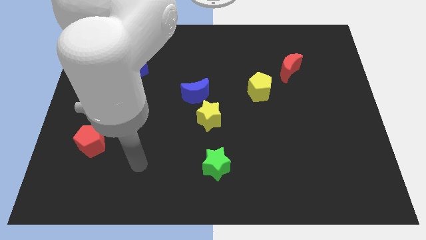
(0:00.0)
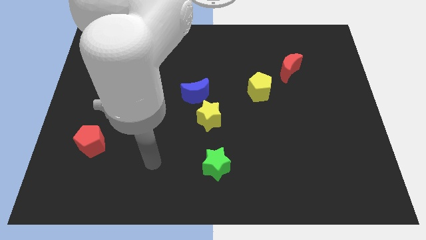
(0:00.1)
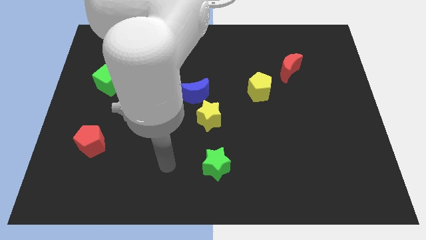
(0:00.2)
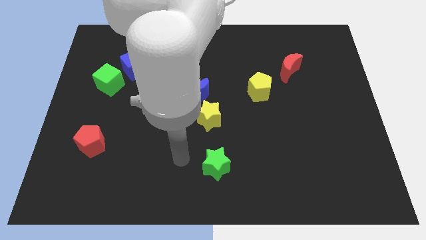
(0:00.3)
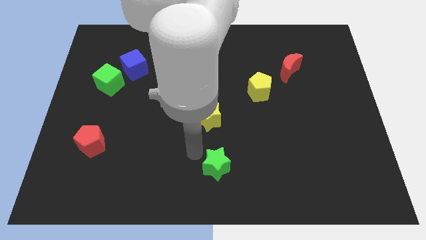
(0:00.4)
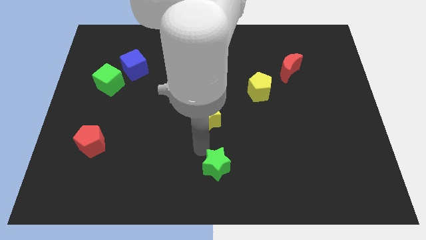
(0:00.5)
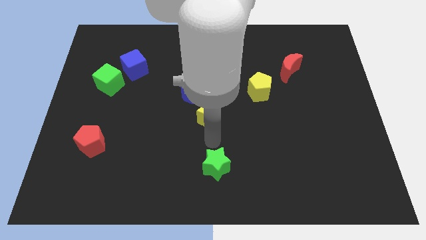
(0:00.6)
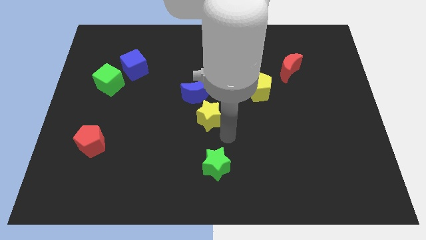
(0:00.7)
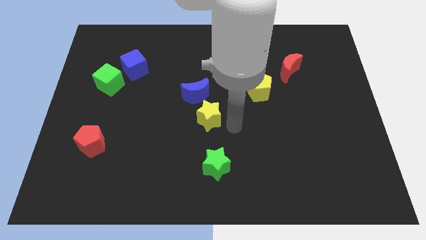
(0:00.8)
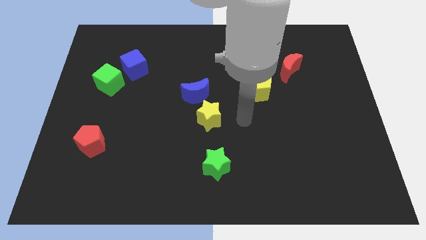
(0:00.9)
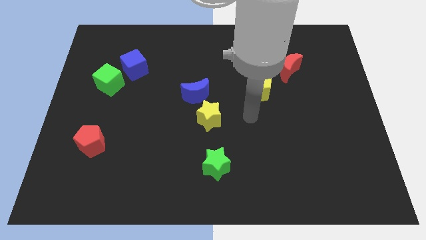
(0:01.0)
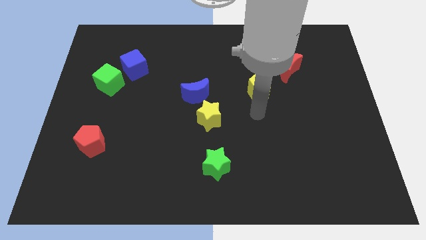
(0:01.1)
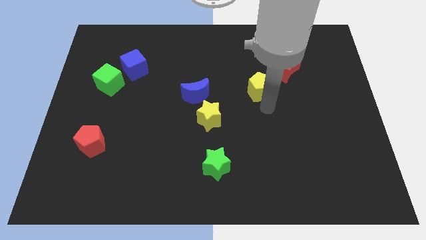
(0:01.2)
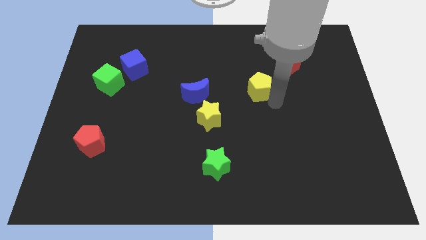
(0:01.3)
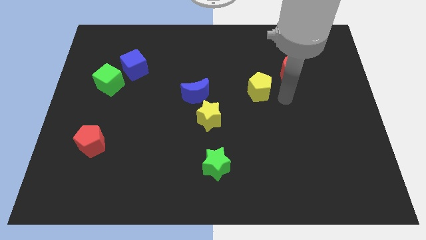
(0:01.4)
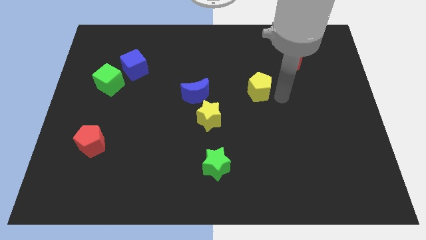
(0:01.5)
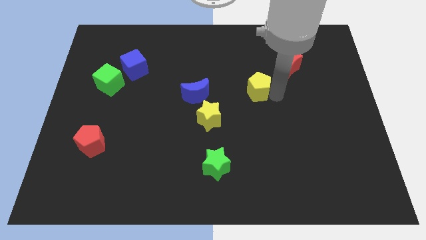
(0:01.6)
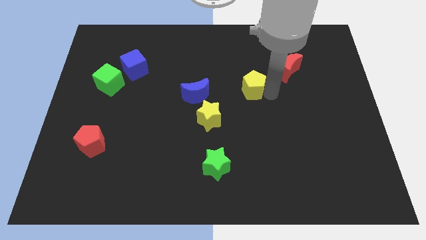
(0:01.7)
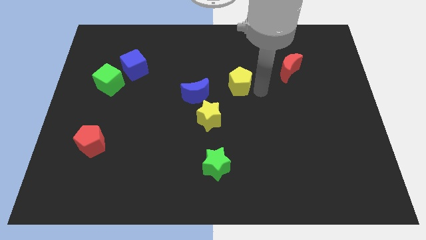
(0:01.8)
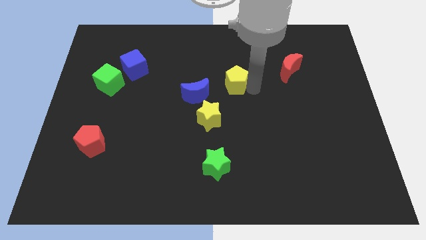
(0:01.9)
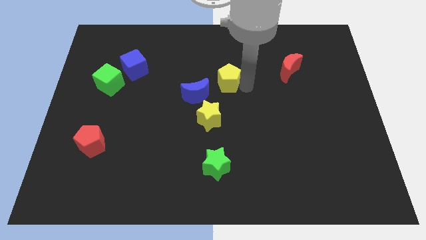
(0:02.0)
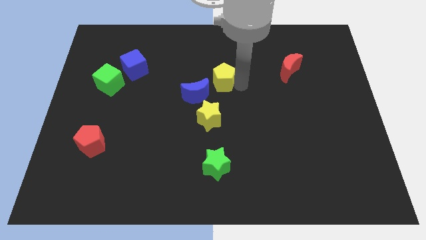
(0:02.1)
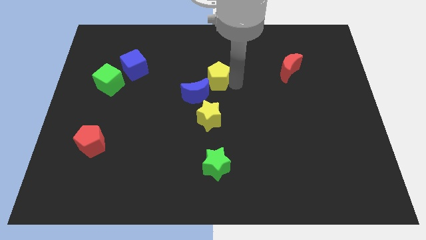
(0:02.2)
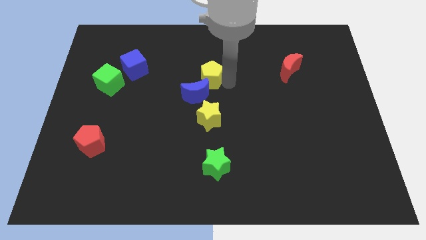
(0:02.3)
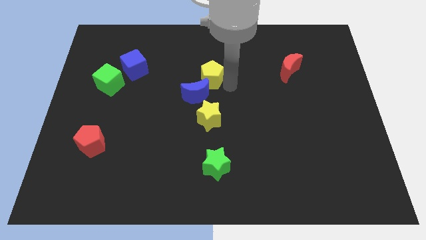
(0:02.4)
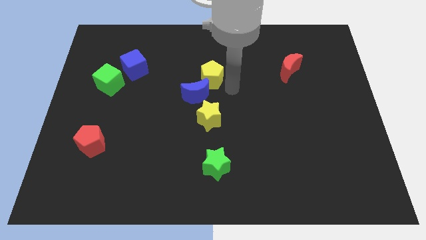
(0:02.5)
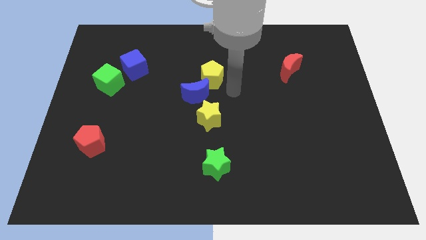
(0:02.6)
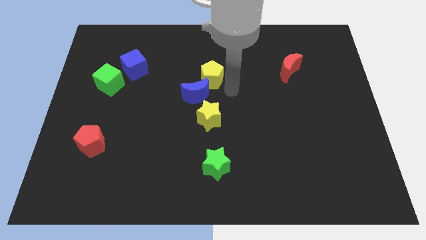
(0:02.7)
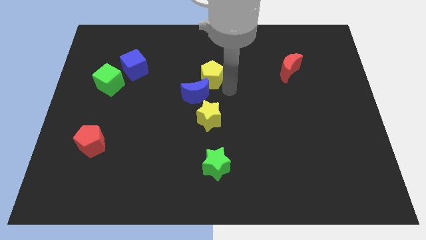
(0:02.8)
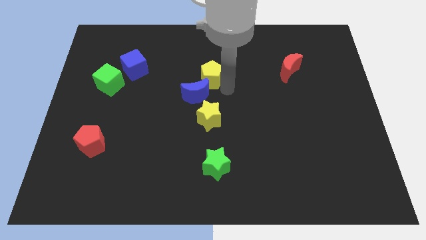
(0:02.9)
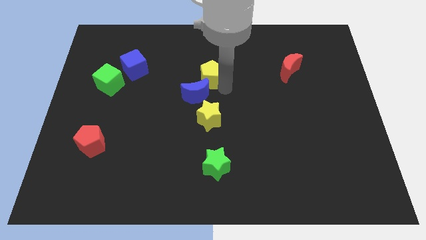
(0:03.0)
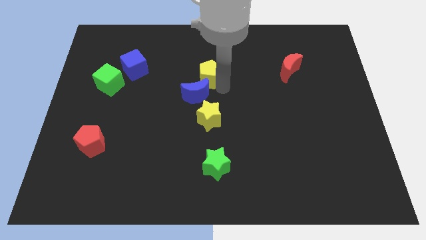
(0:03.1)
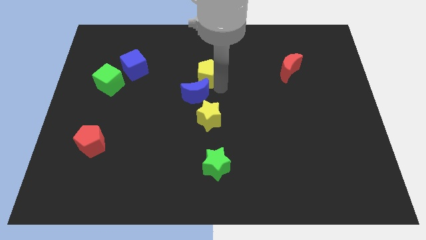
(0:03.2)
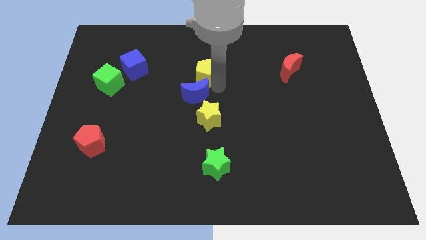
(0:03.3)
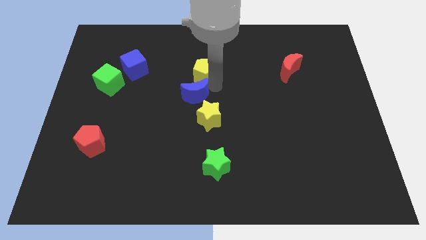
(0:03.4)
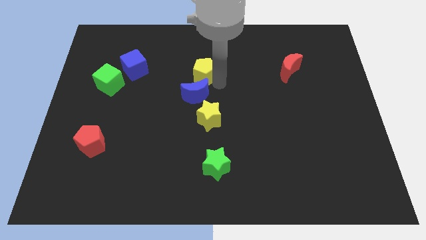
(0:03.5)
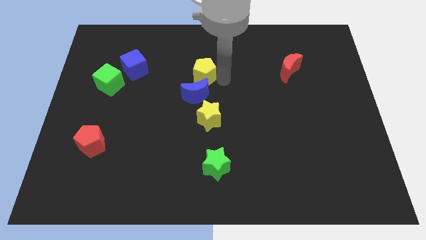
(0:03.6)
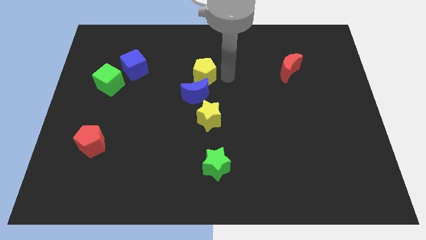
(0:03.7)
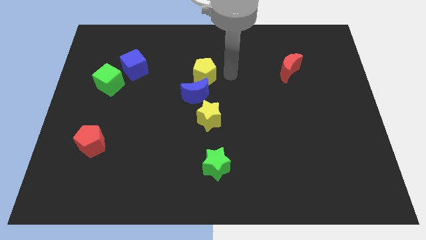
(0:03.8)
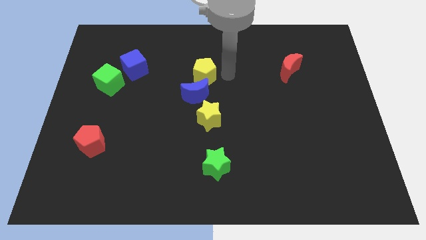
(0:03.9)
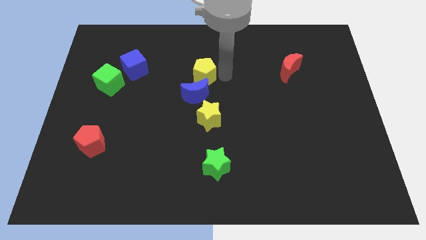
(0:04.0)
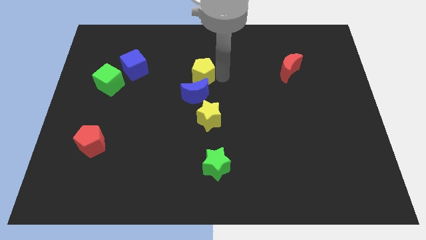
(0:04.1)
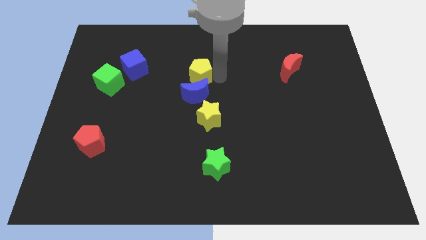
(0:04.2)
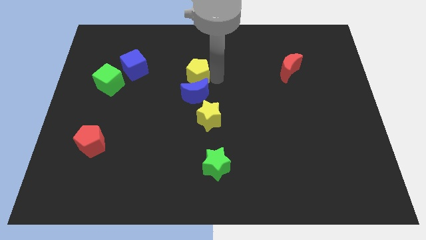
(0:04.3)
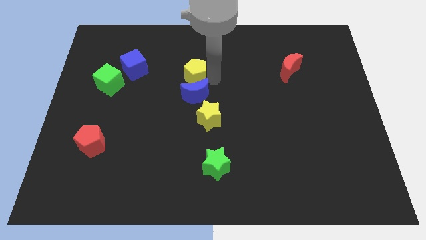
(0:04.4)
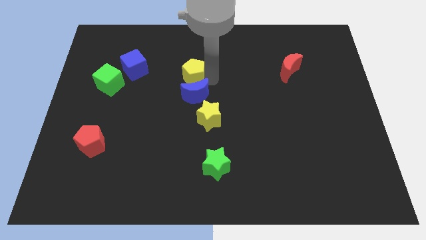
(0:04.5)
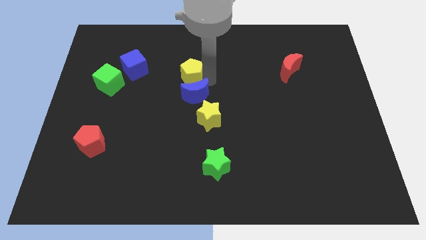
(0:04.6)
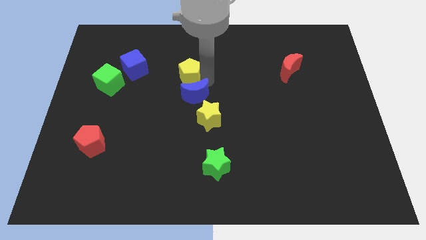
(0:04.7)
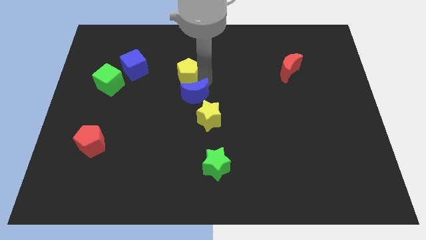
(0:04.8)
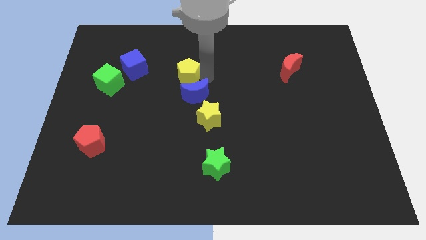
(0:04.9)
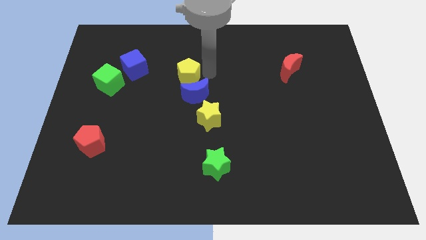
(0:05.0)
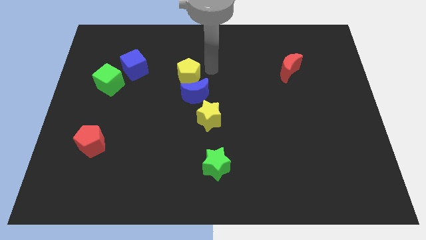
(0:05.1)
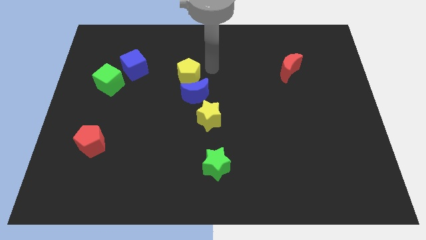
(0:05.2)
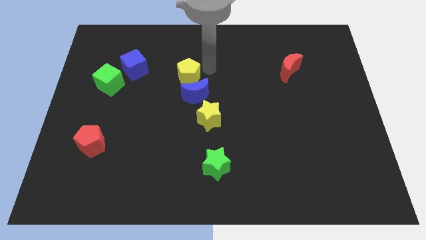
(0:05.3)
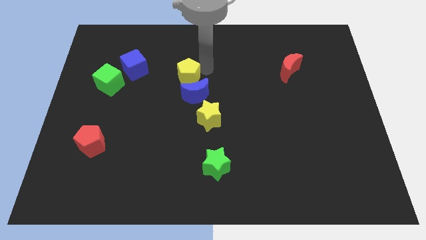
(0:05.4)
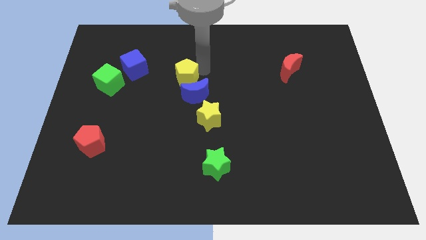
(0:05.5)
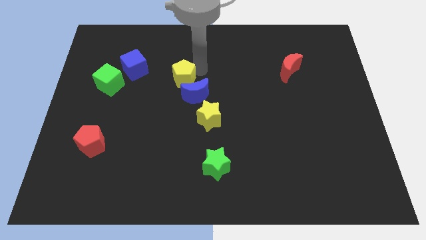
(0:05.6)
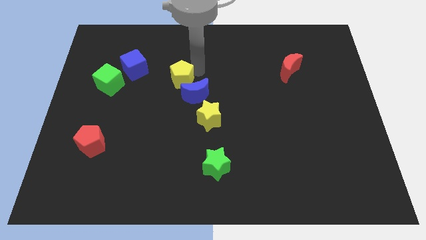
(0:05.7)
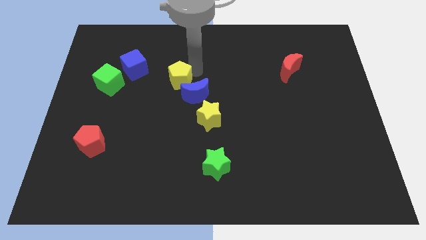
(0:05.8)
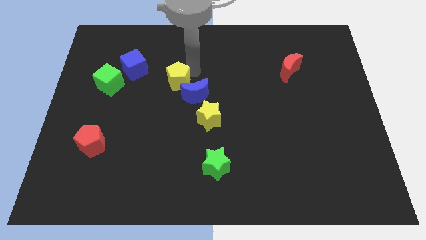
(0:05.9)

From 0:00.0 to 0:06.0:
put the yellow pentagon to the left side of the blue moon

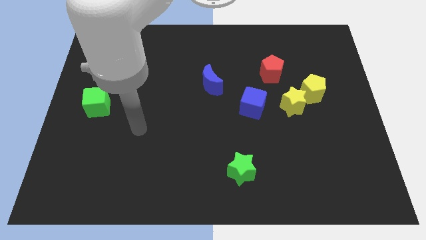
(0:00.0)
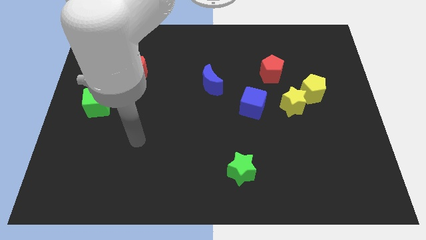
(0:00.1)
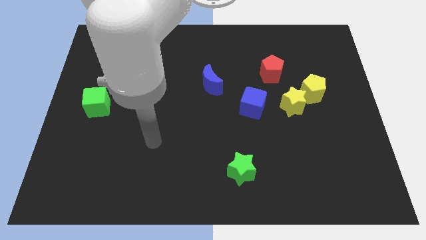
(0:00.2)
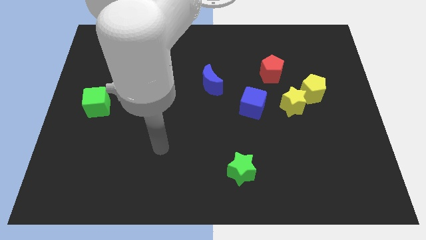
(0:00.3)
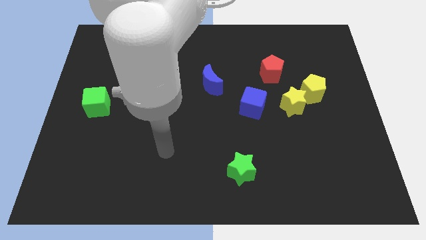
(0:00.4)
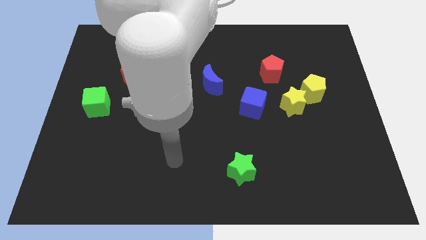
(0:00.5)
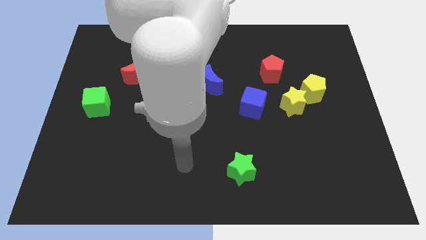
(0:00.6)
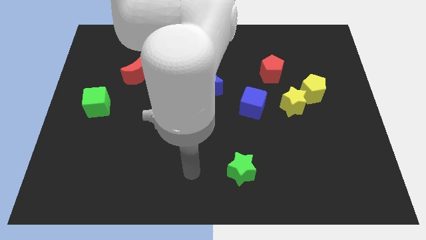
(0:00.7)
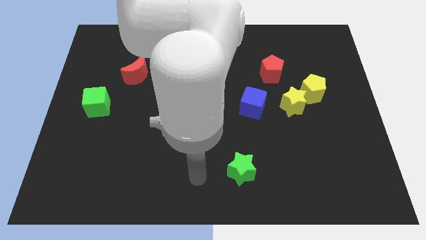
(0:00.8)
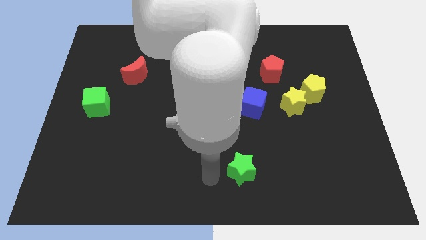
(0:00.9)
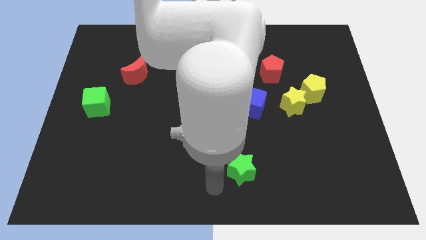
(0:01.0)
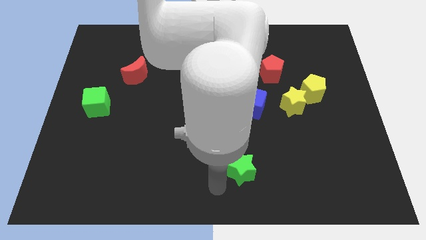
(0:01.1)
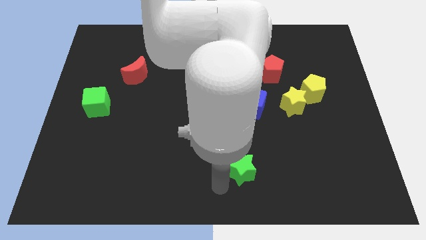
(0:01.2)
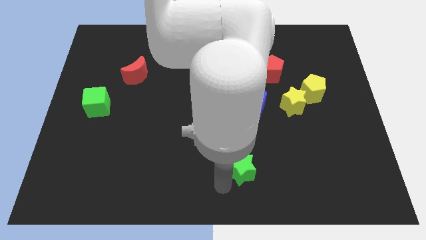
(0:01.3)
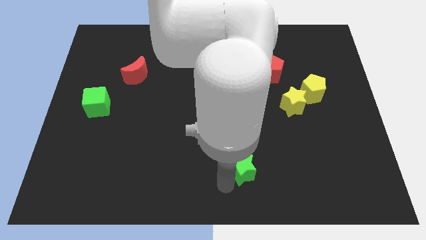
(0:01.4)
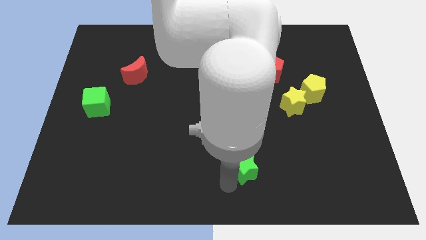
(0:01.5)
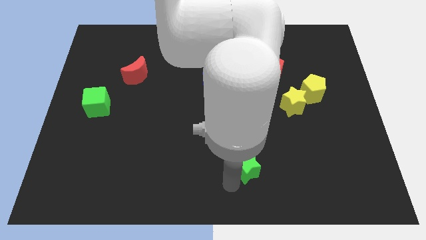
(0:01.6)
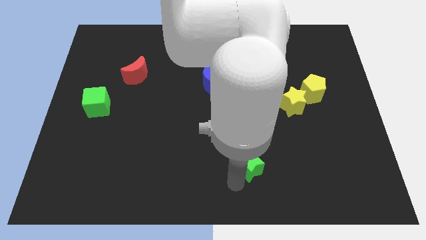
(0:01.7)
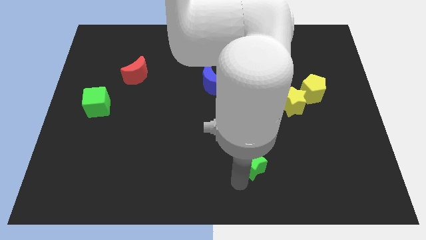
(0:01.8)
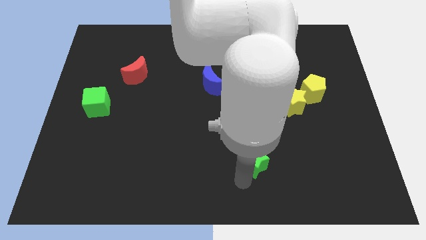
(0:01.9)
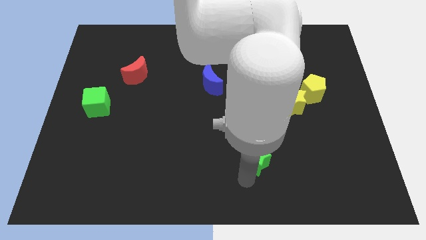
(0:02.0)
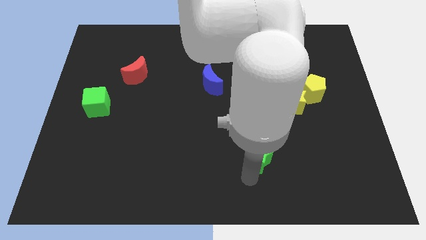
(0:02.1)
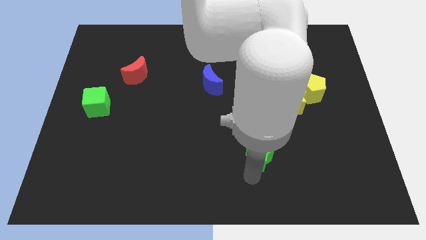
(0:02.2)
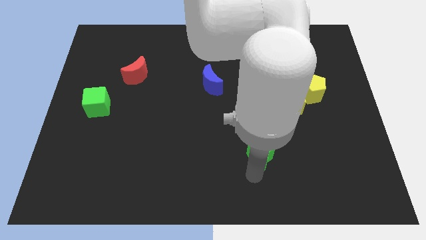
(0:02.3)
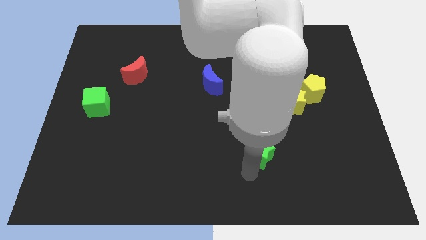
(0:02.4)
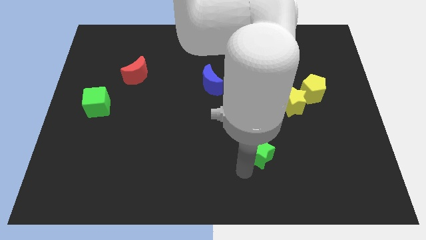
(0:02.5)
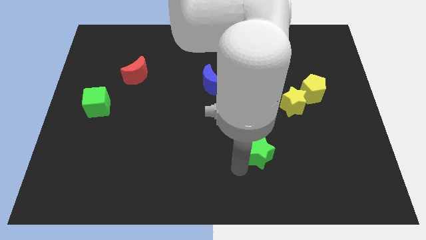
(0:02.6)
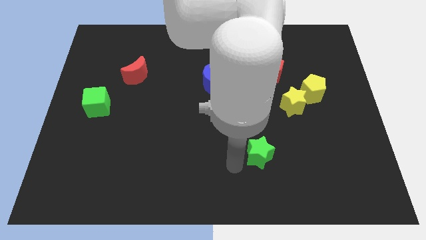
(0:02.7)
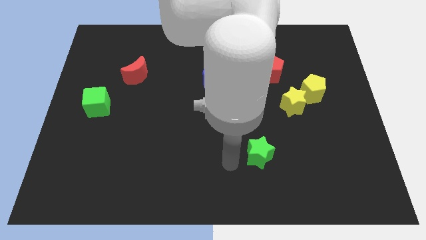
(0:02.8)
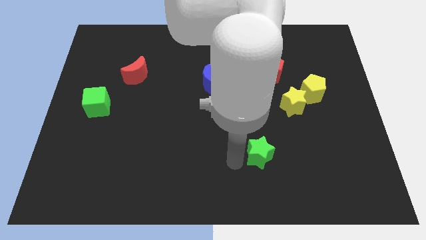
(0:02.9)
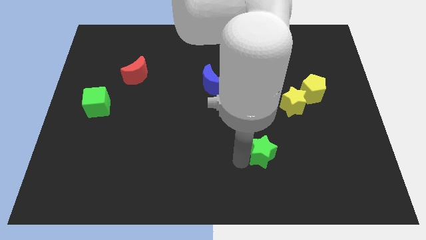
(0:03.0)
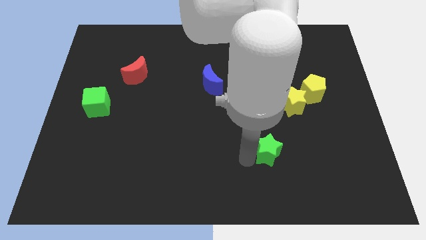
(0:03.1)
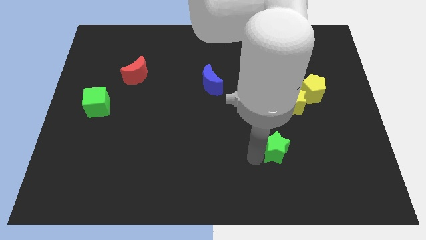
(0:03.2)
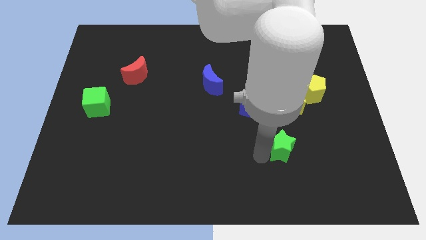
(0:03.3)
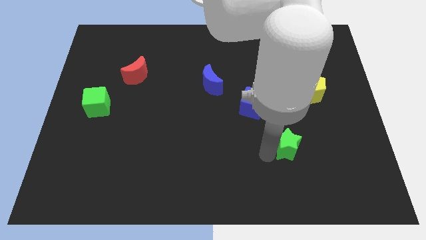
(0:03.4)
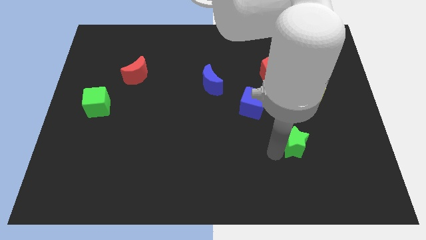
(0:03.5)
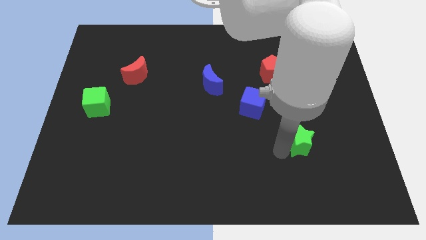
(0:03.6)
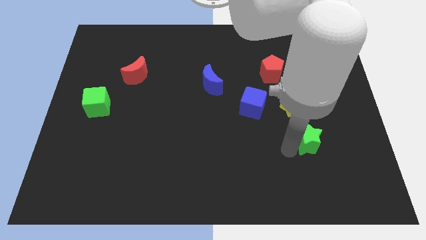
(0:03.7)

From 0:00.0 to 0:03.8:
slide the green star to the bottom of the yellow pentagon
